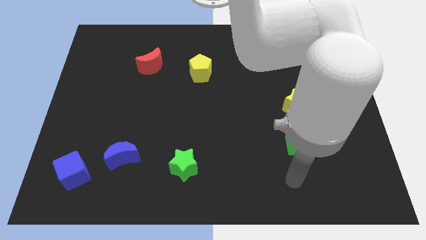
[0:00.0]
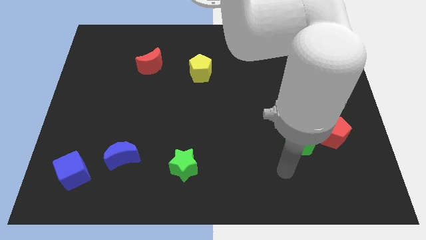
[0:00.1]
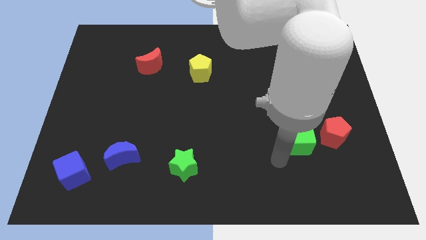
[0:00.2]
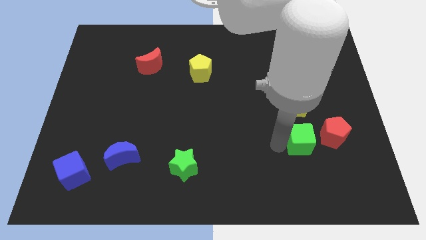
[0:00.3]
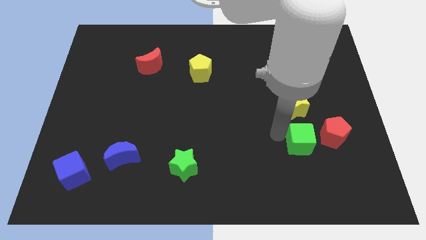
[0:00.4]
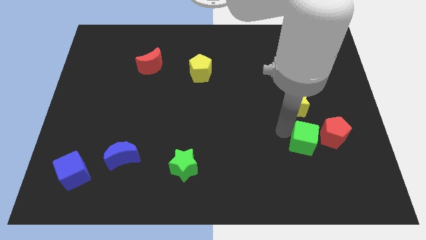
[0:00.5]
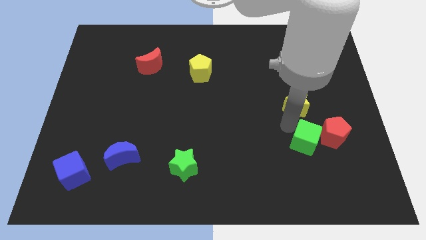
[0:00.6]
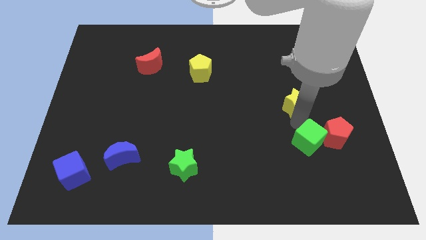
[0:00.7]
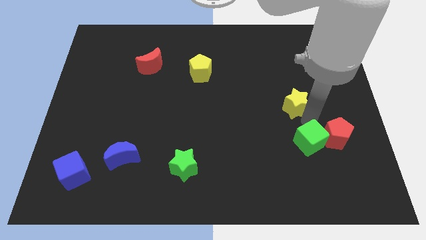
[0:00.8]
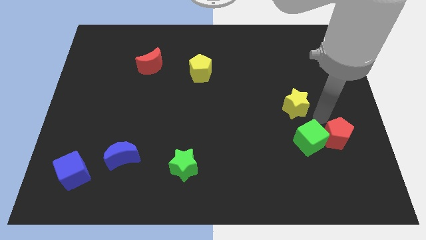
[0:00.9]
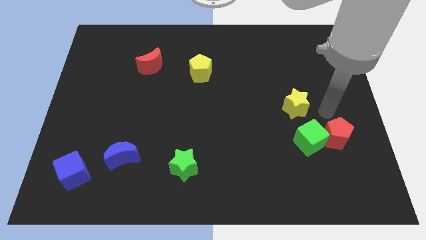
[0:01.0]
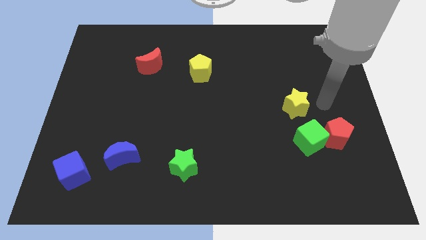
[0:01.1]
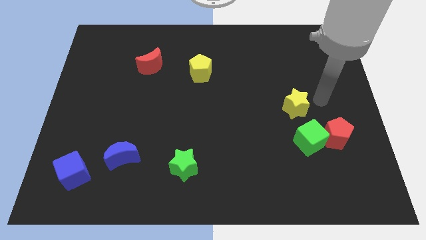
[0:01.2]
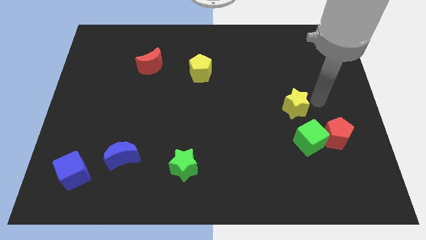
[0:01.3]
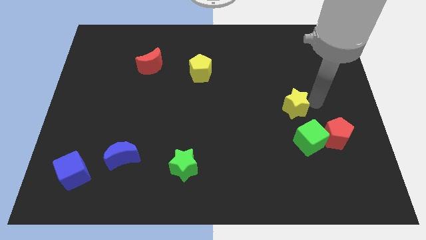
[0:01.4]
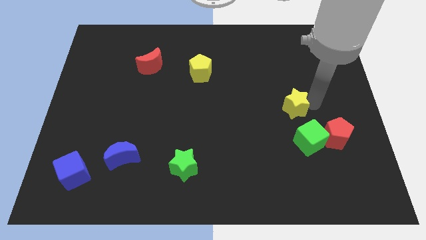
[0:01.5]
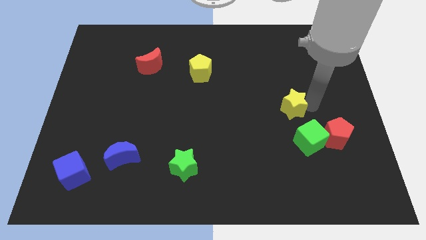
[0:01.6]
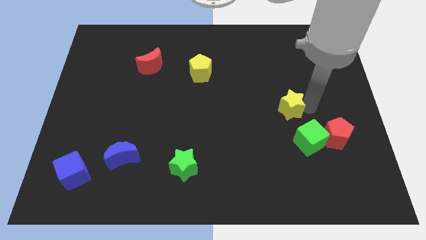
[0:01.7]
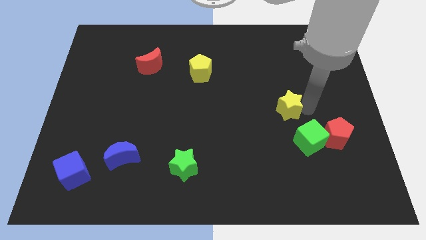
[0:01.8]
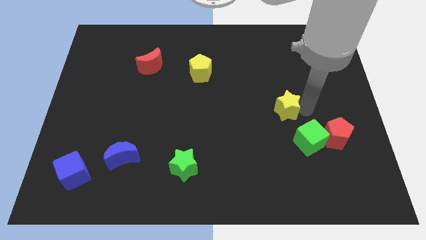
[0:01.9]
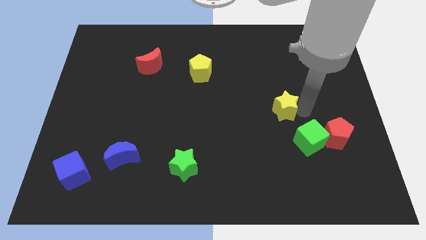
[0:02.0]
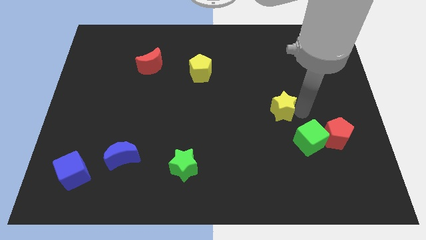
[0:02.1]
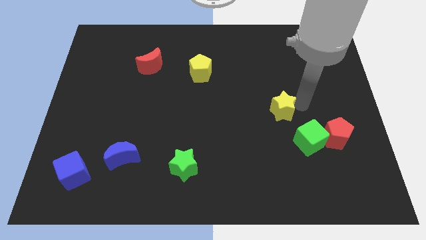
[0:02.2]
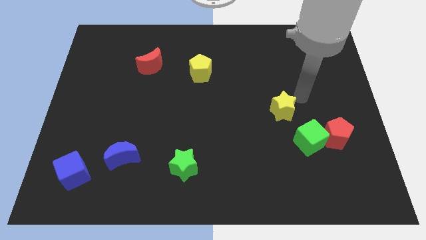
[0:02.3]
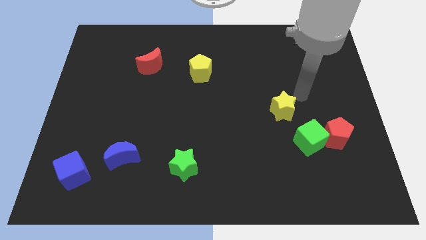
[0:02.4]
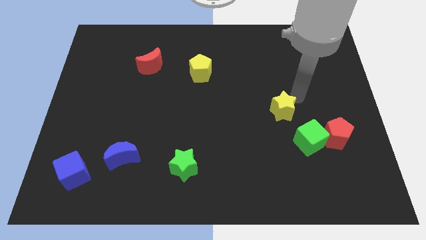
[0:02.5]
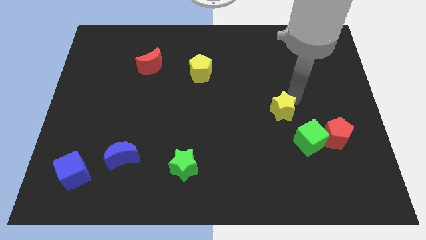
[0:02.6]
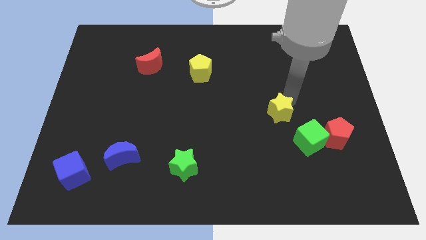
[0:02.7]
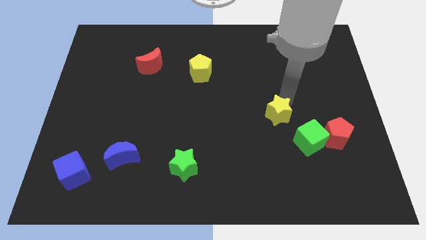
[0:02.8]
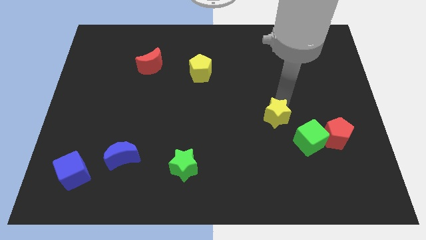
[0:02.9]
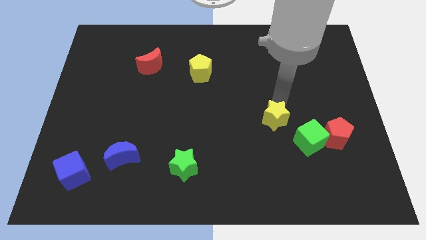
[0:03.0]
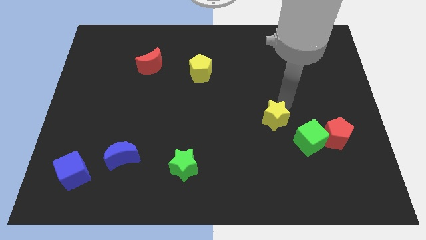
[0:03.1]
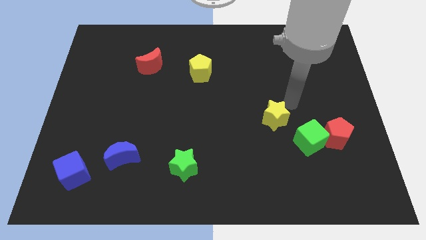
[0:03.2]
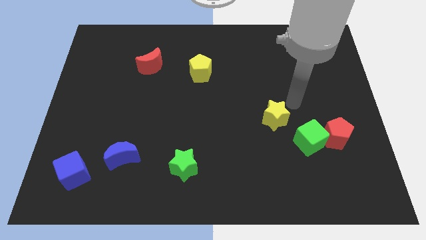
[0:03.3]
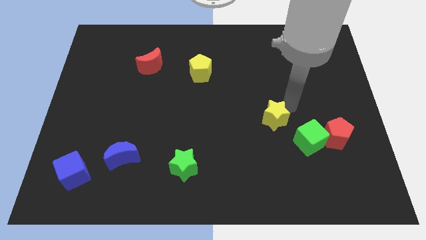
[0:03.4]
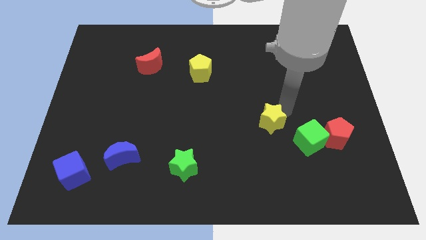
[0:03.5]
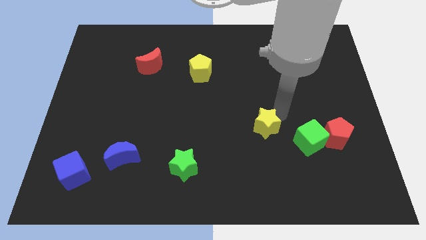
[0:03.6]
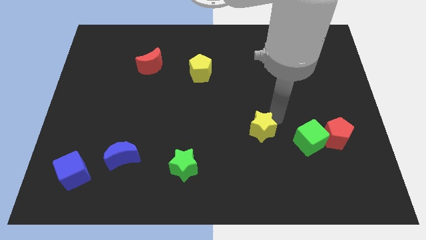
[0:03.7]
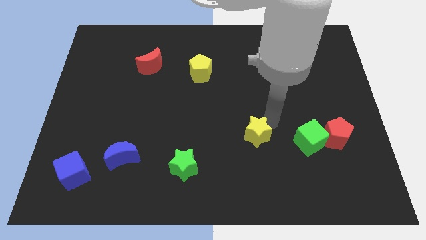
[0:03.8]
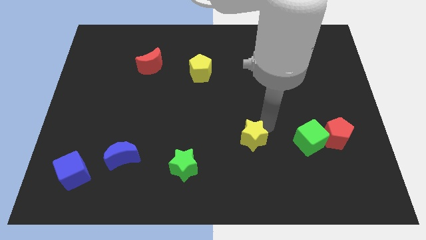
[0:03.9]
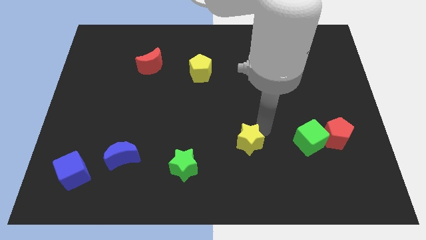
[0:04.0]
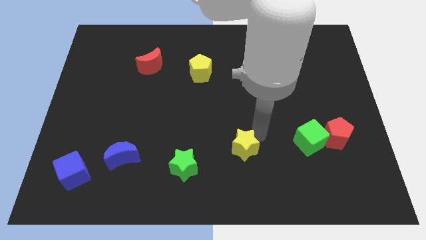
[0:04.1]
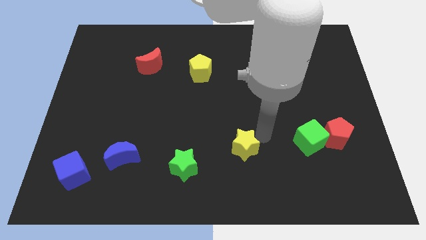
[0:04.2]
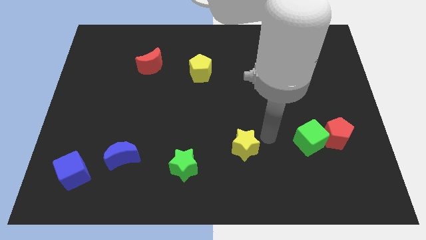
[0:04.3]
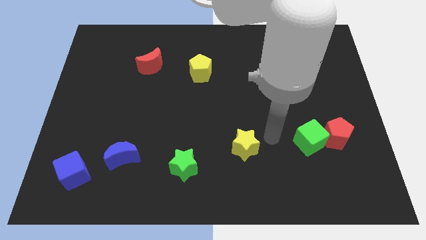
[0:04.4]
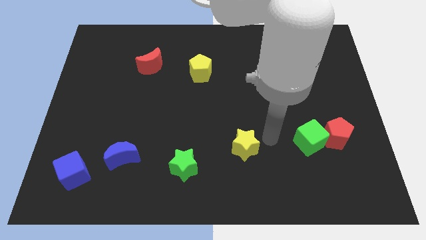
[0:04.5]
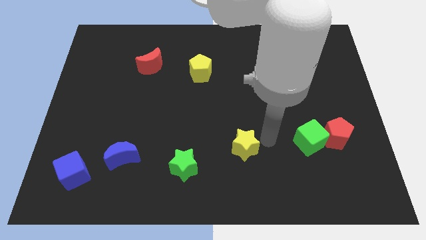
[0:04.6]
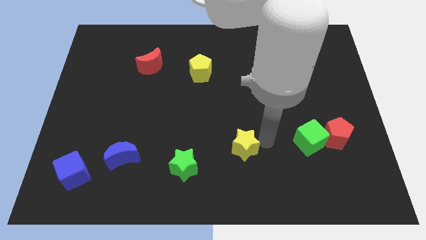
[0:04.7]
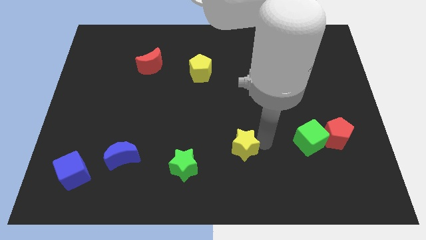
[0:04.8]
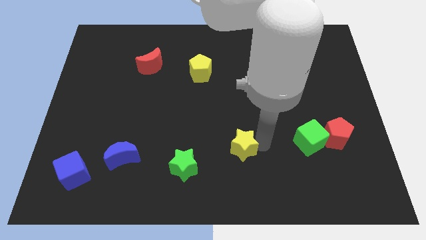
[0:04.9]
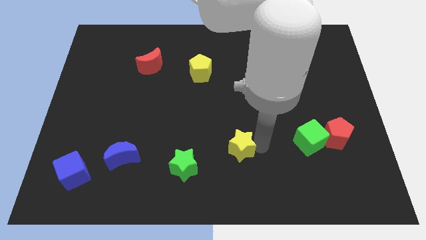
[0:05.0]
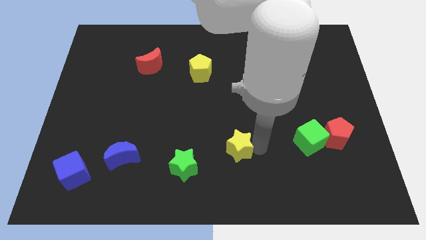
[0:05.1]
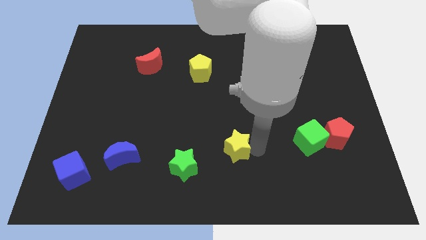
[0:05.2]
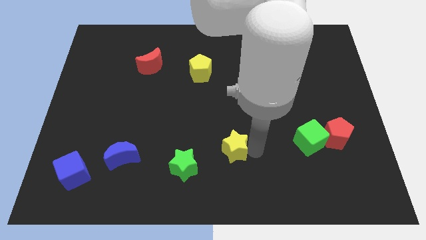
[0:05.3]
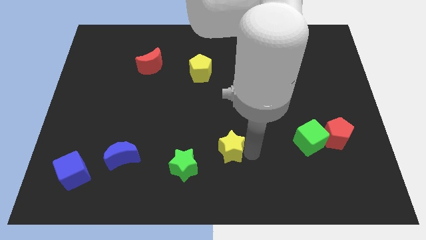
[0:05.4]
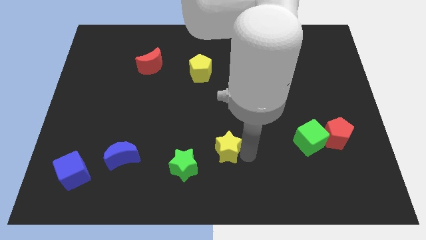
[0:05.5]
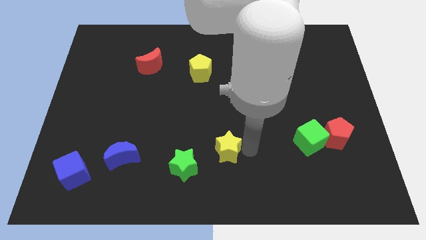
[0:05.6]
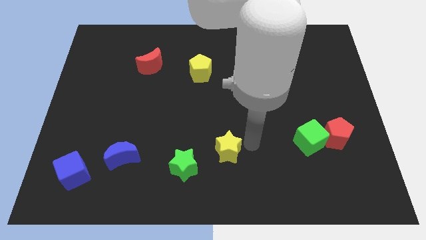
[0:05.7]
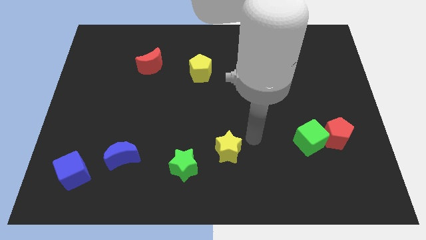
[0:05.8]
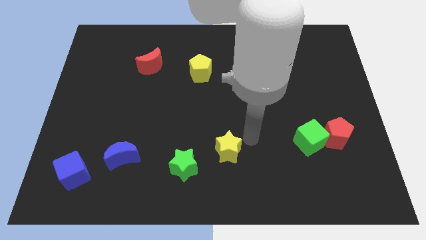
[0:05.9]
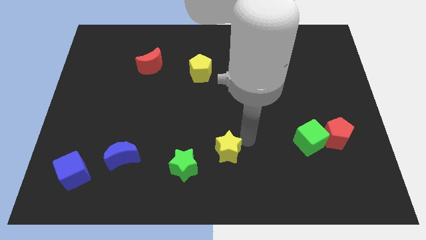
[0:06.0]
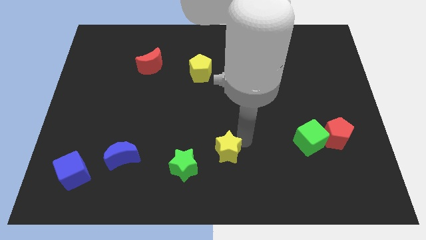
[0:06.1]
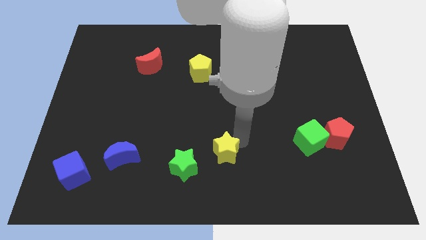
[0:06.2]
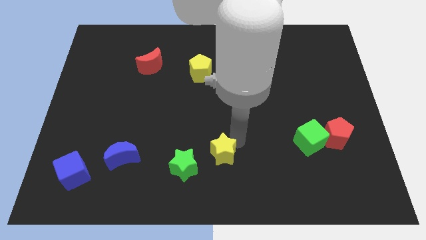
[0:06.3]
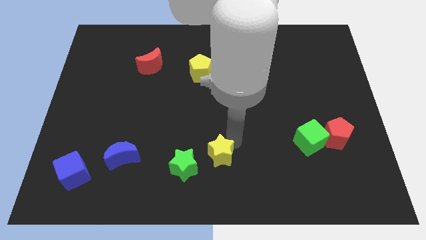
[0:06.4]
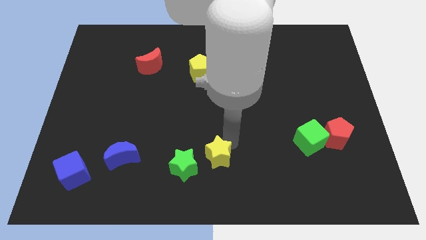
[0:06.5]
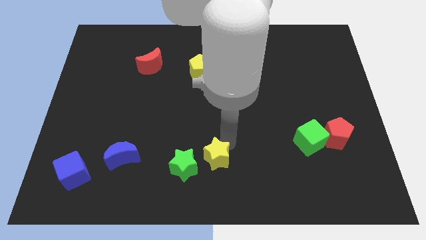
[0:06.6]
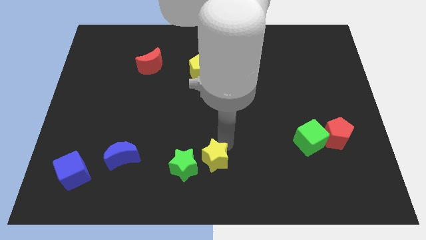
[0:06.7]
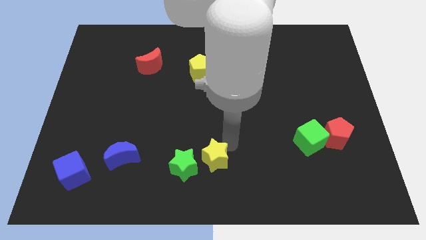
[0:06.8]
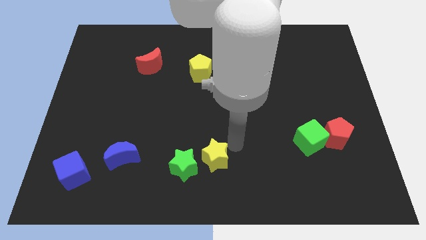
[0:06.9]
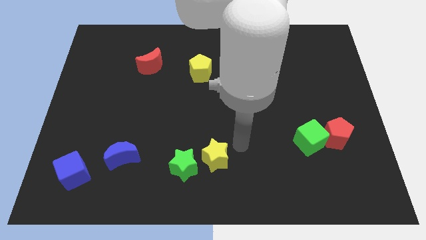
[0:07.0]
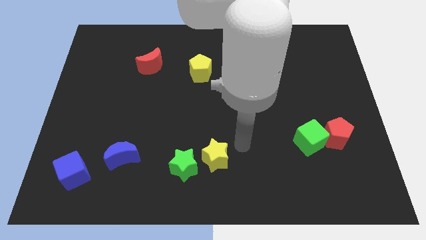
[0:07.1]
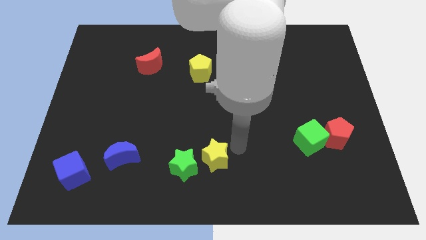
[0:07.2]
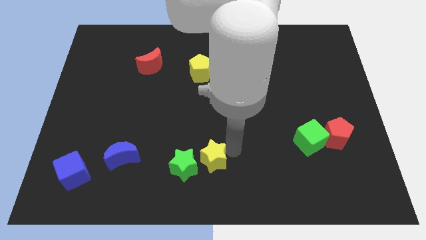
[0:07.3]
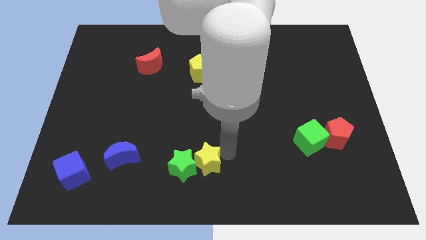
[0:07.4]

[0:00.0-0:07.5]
slide the yellow star next to the green star
